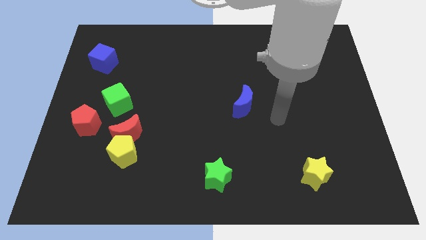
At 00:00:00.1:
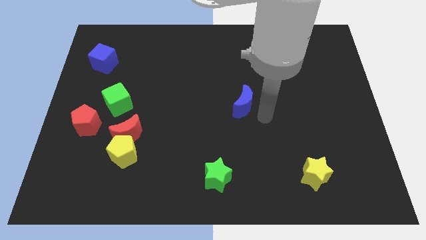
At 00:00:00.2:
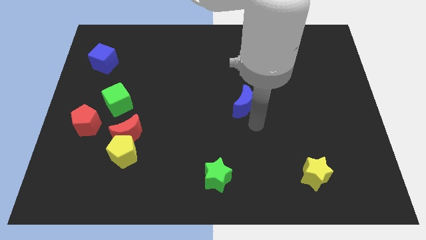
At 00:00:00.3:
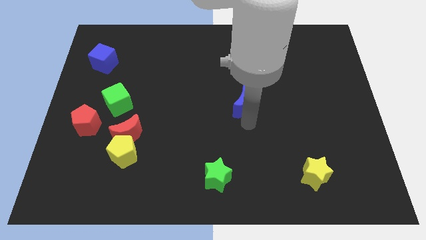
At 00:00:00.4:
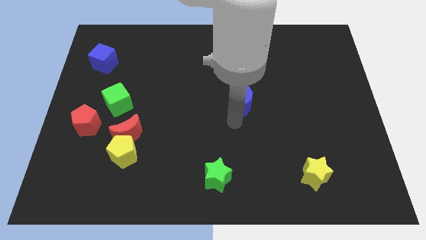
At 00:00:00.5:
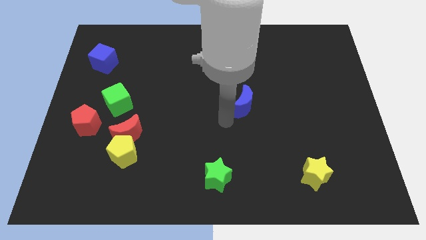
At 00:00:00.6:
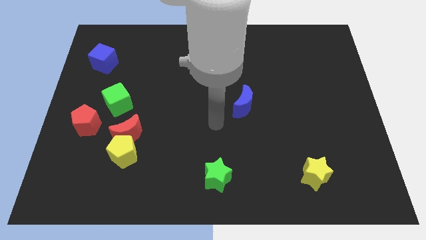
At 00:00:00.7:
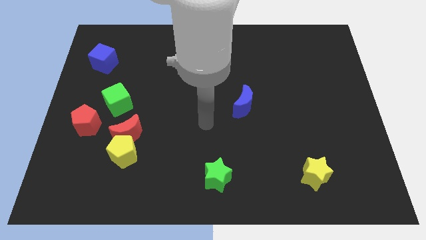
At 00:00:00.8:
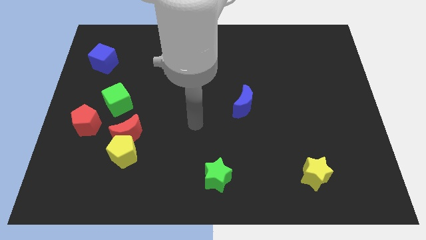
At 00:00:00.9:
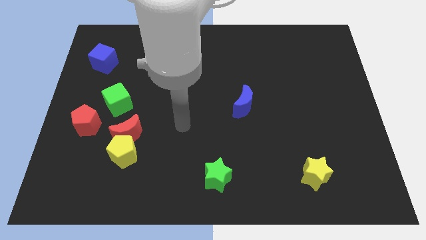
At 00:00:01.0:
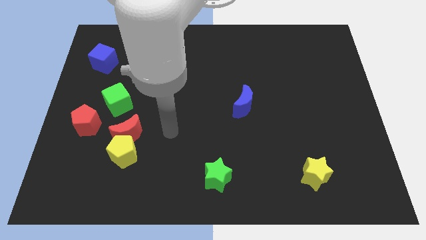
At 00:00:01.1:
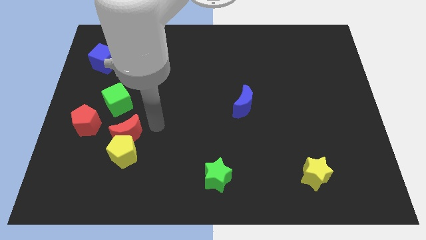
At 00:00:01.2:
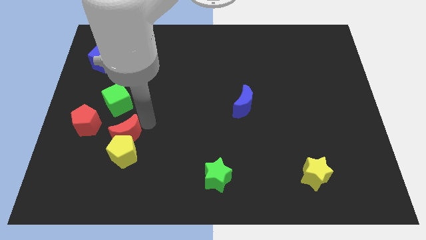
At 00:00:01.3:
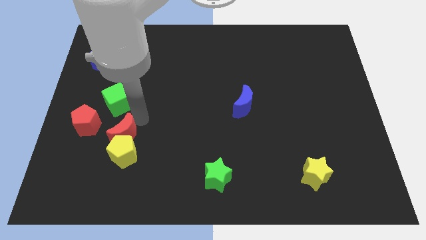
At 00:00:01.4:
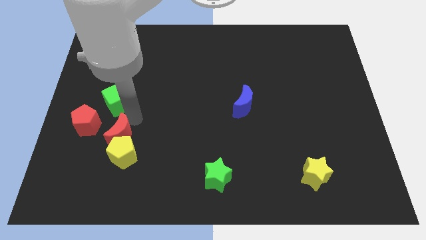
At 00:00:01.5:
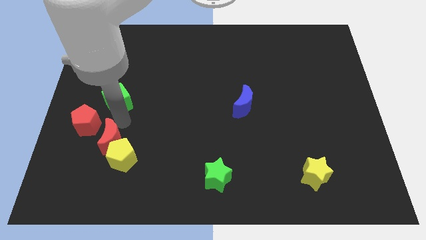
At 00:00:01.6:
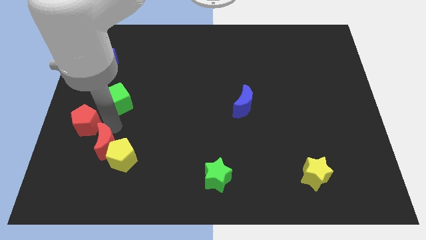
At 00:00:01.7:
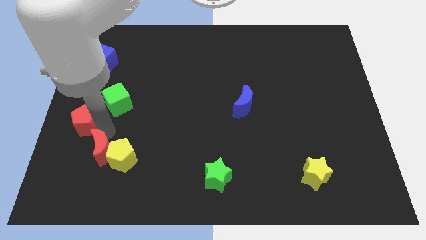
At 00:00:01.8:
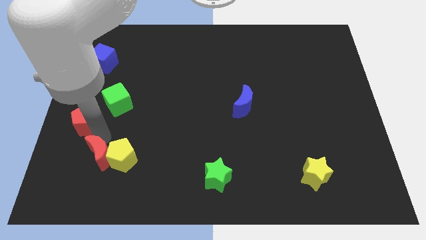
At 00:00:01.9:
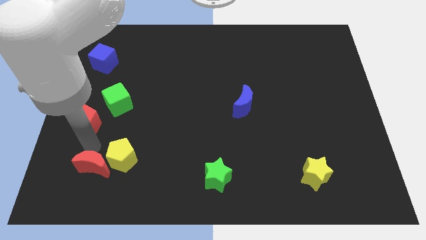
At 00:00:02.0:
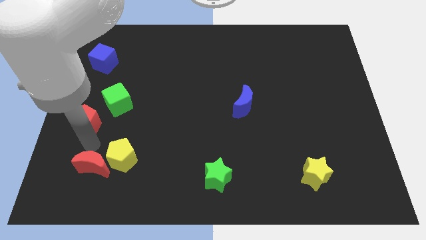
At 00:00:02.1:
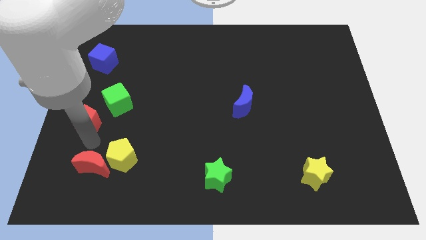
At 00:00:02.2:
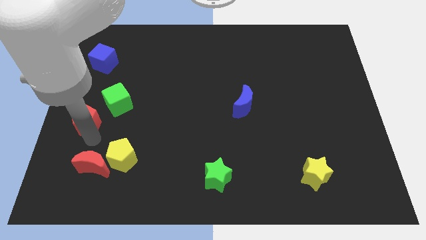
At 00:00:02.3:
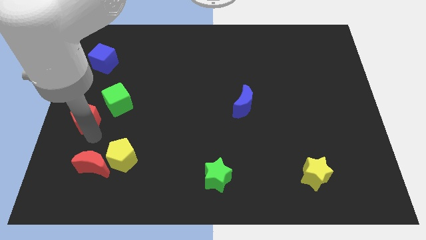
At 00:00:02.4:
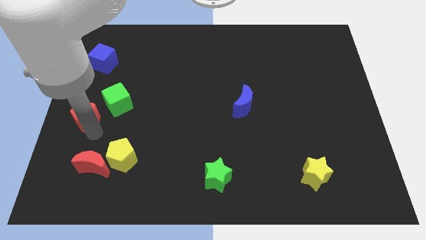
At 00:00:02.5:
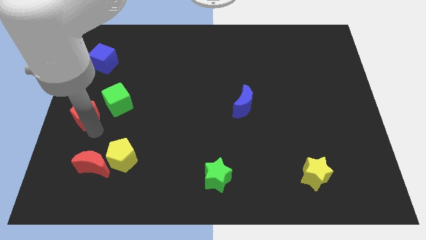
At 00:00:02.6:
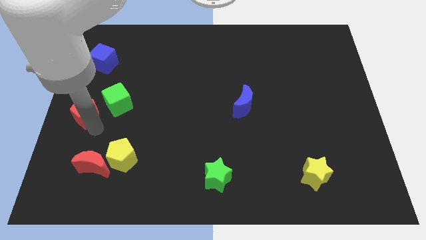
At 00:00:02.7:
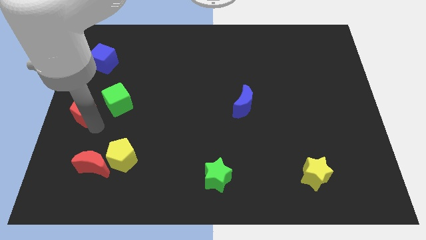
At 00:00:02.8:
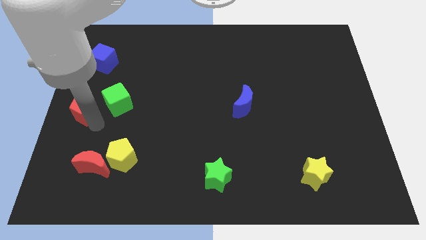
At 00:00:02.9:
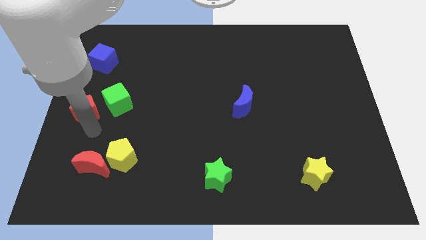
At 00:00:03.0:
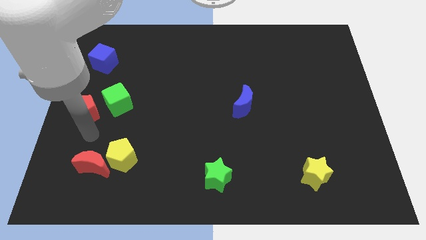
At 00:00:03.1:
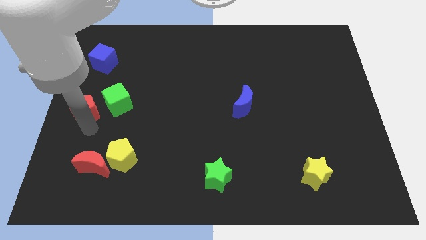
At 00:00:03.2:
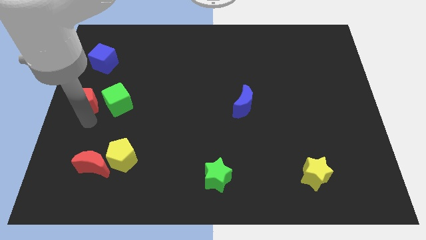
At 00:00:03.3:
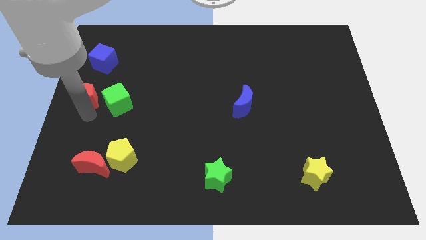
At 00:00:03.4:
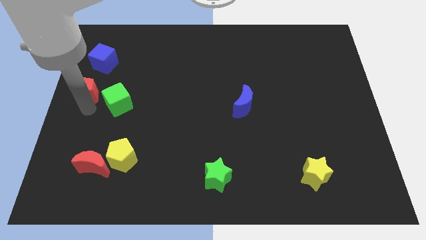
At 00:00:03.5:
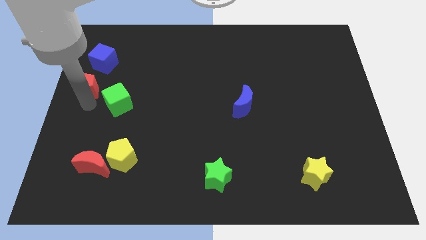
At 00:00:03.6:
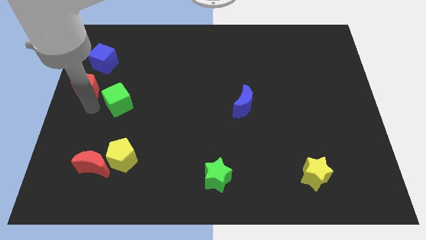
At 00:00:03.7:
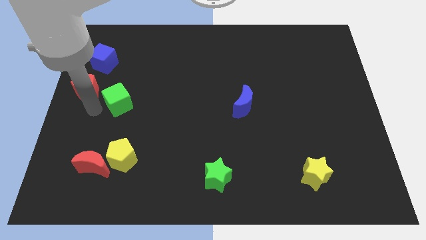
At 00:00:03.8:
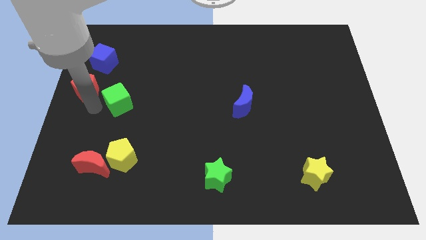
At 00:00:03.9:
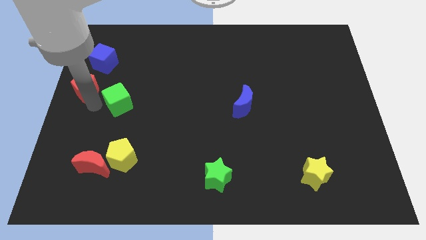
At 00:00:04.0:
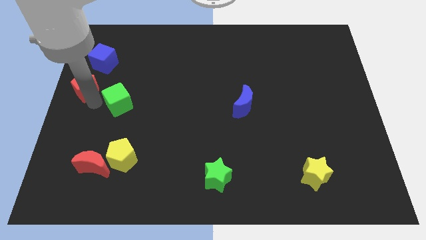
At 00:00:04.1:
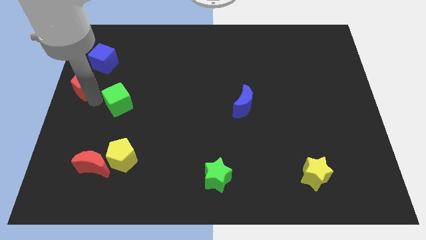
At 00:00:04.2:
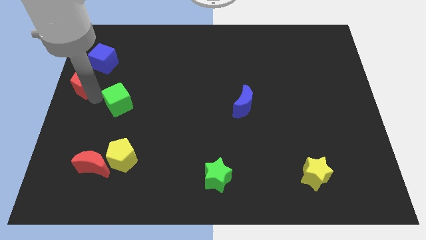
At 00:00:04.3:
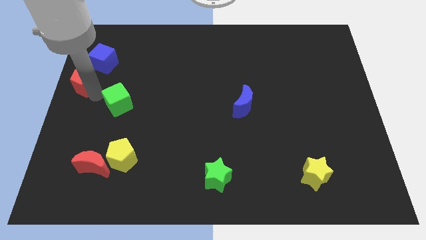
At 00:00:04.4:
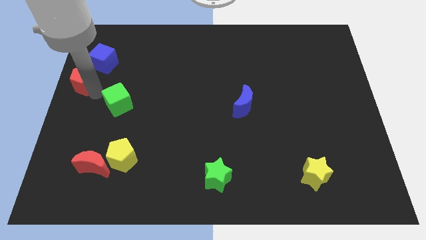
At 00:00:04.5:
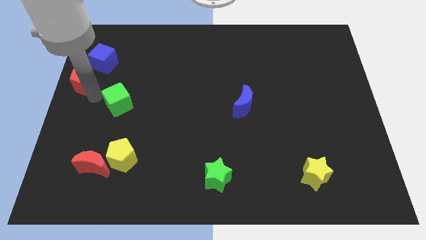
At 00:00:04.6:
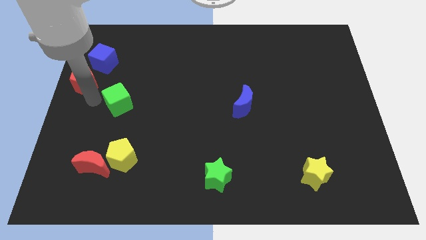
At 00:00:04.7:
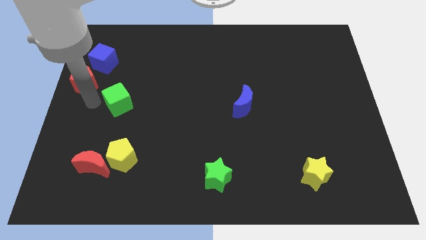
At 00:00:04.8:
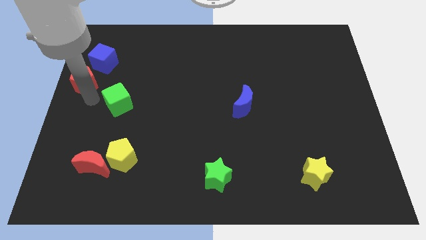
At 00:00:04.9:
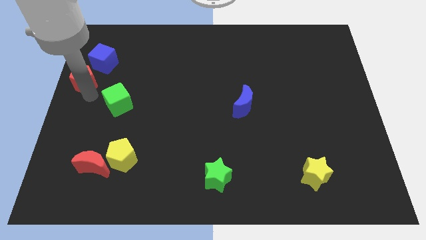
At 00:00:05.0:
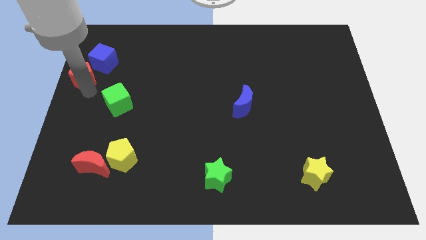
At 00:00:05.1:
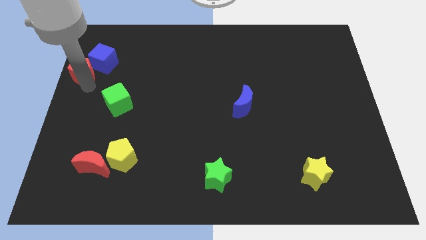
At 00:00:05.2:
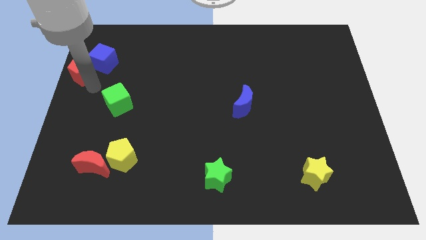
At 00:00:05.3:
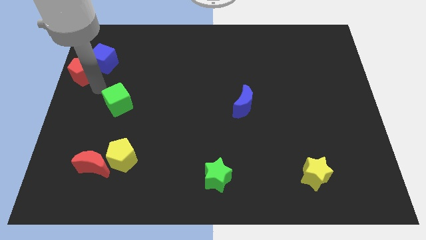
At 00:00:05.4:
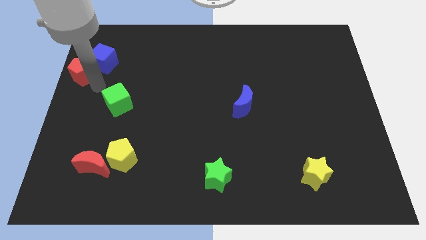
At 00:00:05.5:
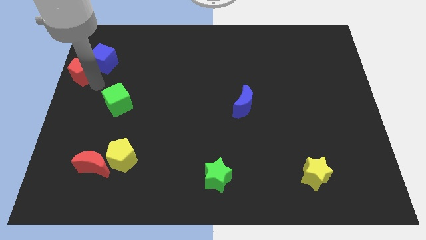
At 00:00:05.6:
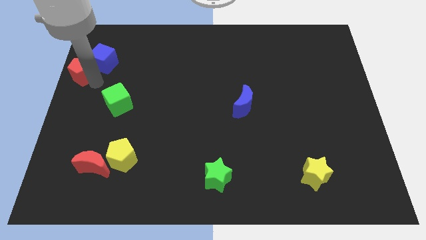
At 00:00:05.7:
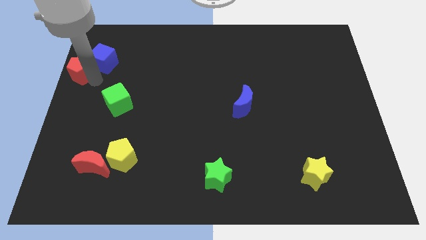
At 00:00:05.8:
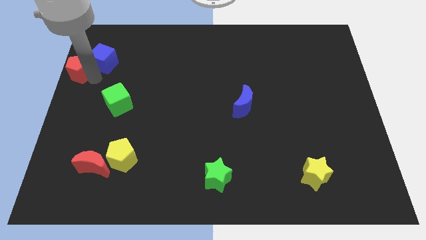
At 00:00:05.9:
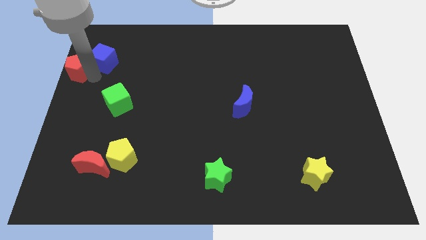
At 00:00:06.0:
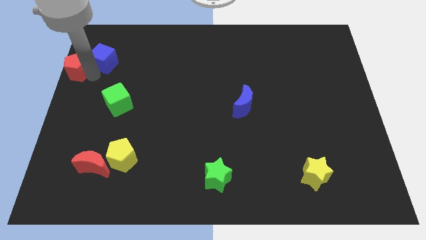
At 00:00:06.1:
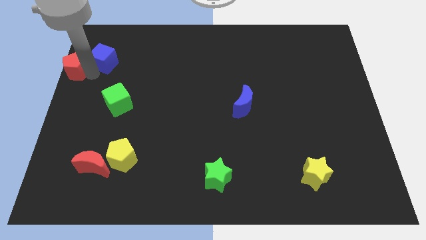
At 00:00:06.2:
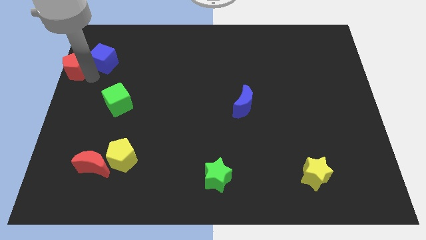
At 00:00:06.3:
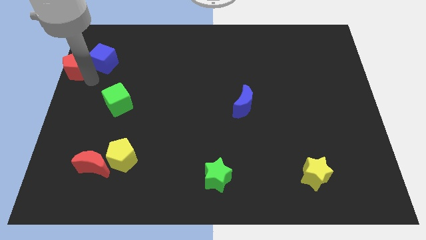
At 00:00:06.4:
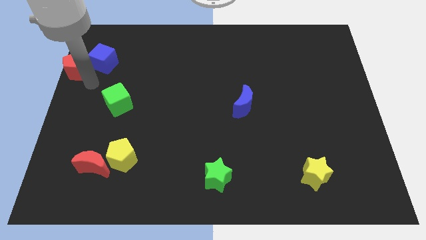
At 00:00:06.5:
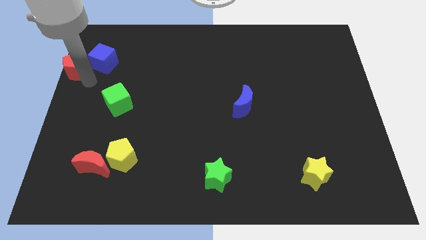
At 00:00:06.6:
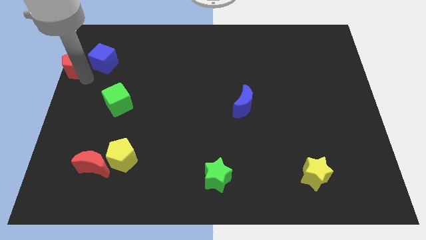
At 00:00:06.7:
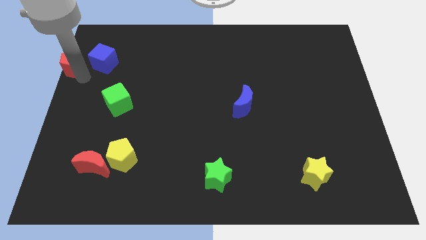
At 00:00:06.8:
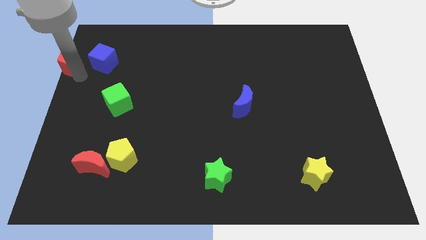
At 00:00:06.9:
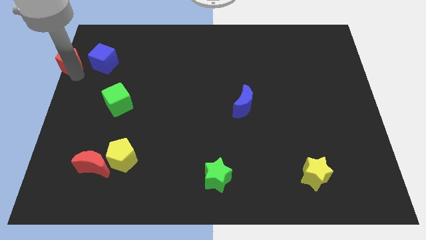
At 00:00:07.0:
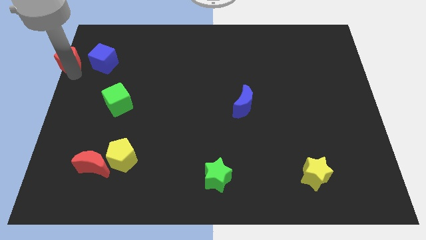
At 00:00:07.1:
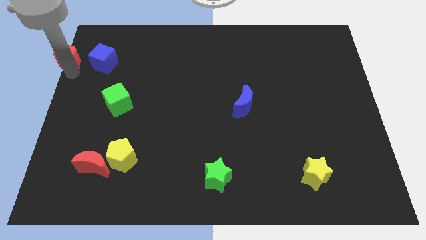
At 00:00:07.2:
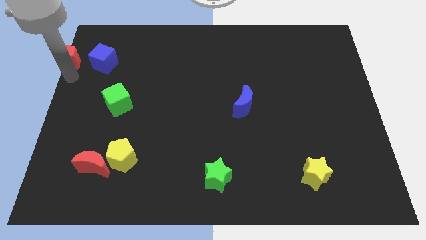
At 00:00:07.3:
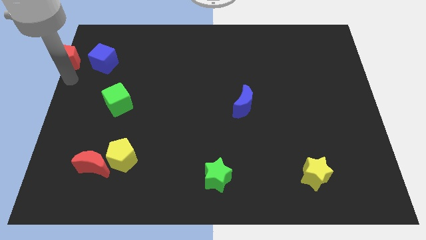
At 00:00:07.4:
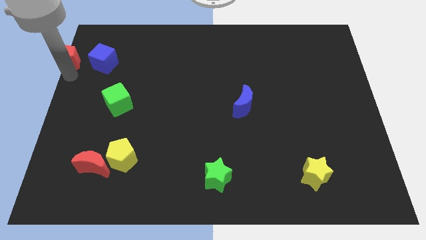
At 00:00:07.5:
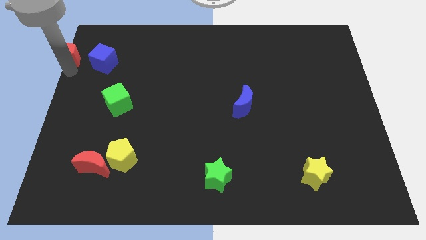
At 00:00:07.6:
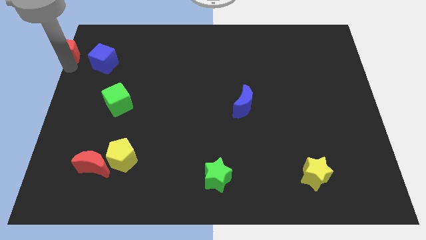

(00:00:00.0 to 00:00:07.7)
push the red pentagon to the top left of the board
